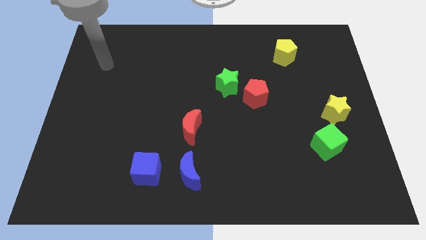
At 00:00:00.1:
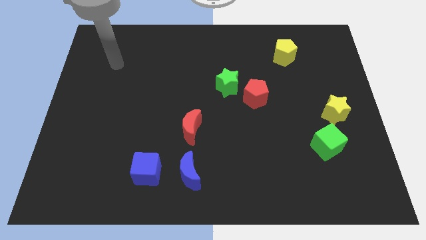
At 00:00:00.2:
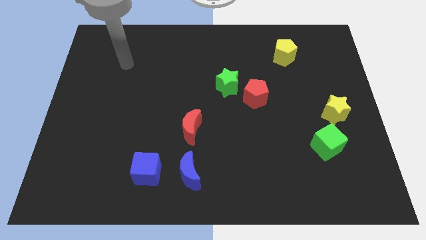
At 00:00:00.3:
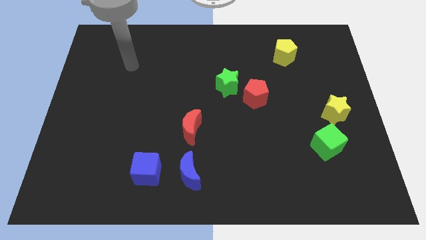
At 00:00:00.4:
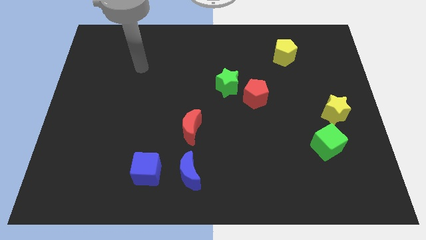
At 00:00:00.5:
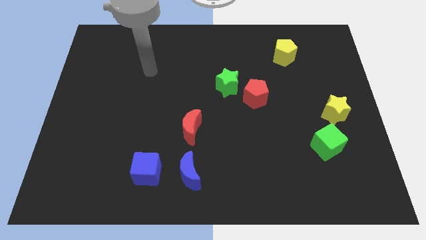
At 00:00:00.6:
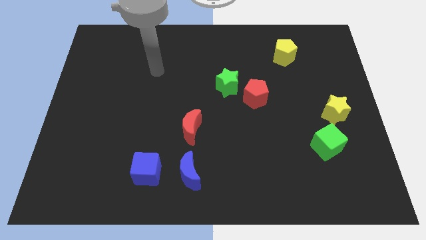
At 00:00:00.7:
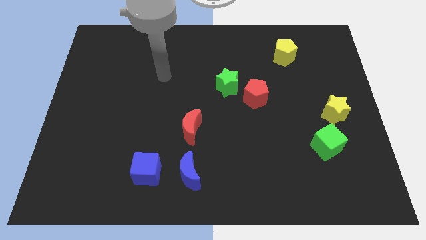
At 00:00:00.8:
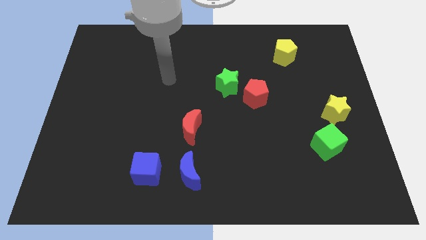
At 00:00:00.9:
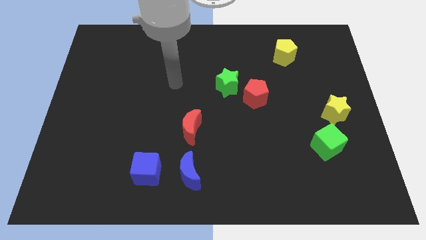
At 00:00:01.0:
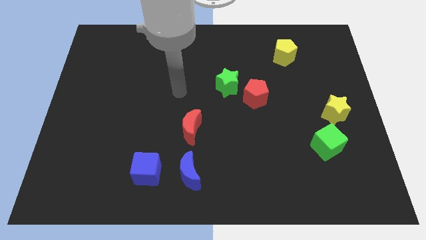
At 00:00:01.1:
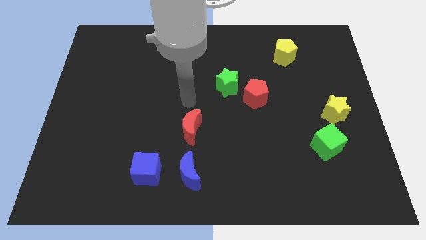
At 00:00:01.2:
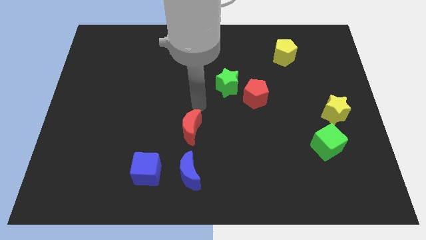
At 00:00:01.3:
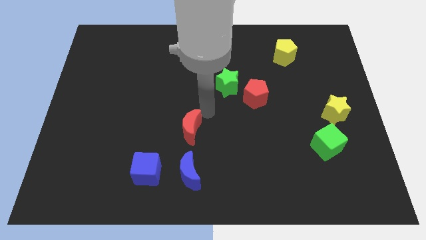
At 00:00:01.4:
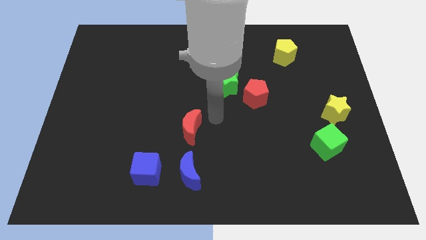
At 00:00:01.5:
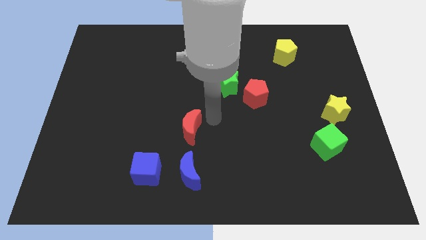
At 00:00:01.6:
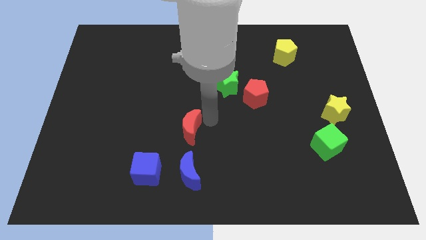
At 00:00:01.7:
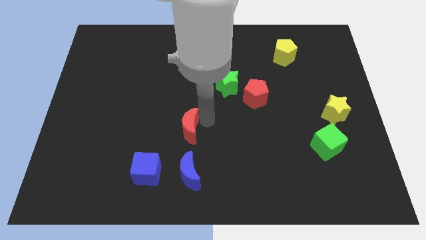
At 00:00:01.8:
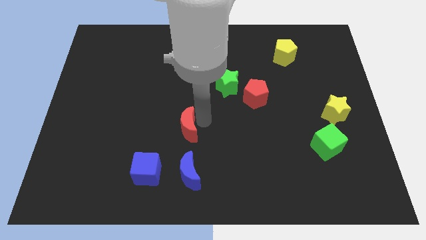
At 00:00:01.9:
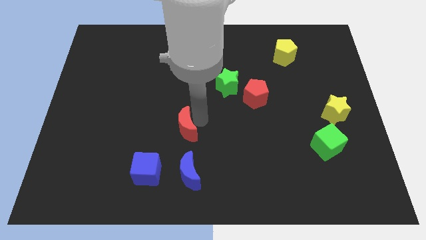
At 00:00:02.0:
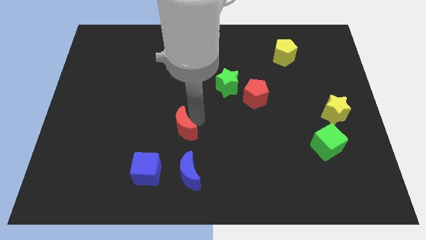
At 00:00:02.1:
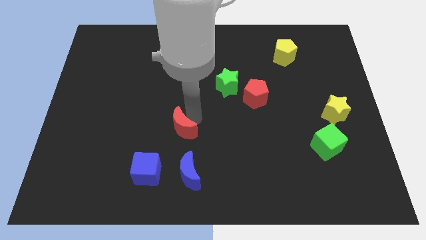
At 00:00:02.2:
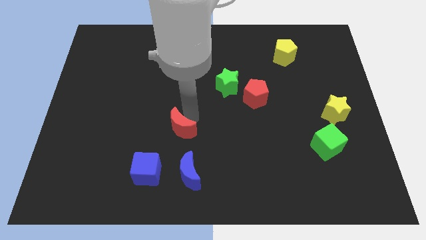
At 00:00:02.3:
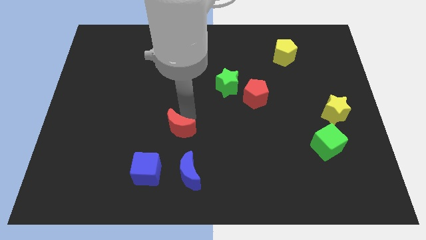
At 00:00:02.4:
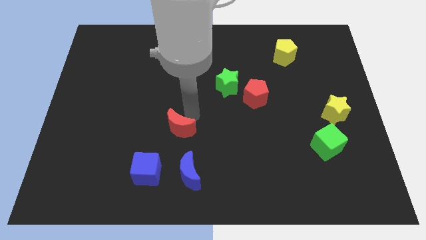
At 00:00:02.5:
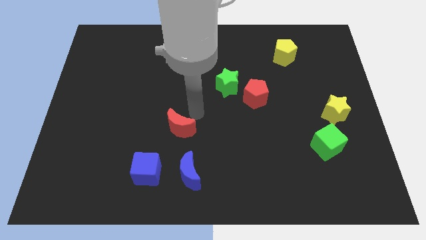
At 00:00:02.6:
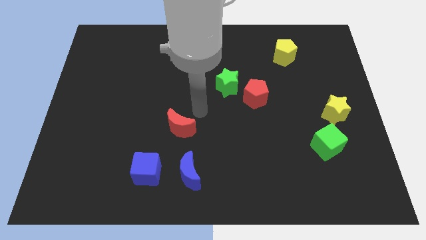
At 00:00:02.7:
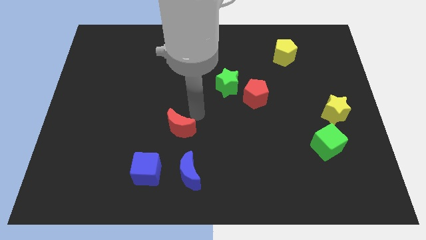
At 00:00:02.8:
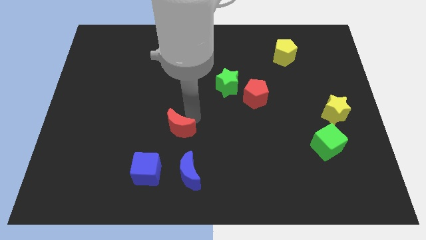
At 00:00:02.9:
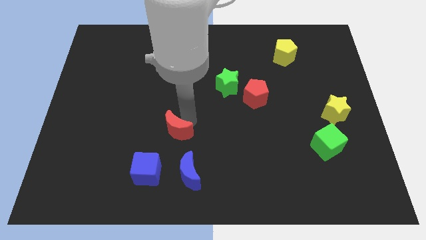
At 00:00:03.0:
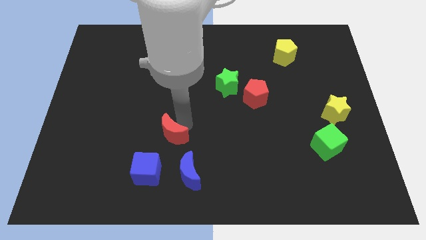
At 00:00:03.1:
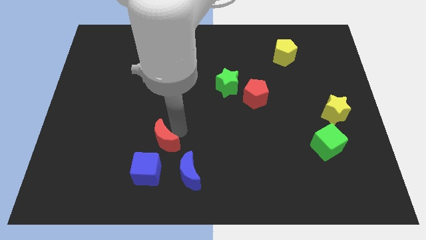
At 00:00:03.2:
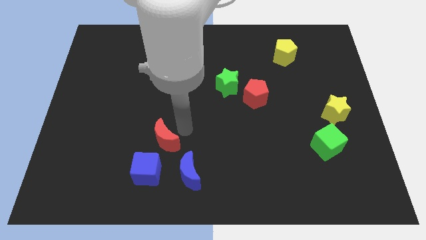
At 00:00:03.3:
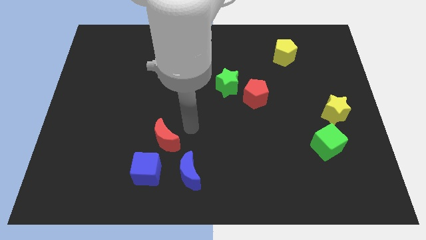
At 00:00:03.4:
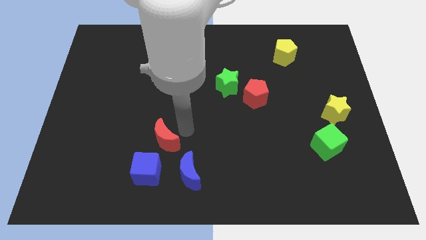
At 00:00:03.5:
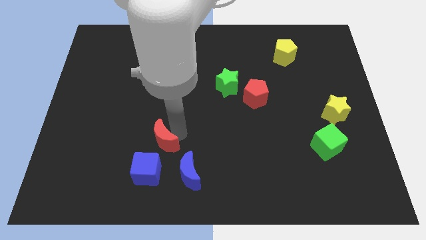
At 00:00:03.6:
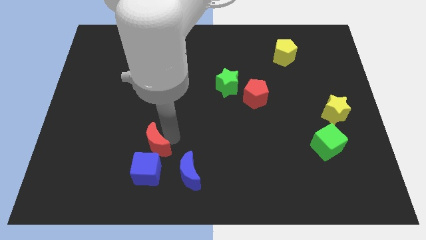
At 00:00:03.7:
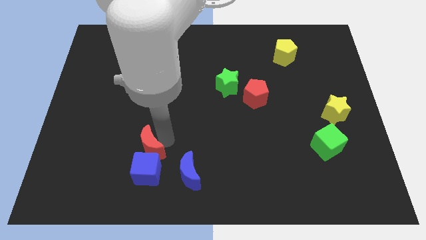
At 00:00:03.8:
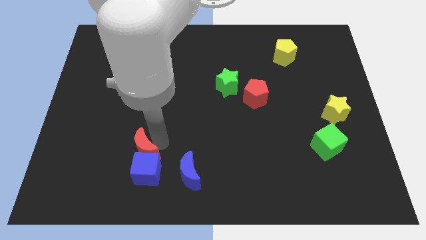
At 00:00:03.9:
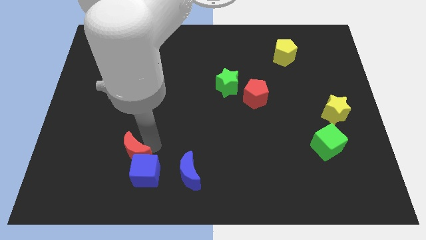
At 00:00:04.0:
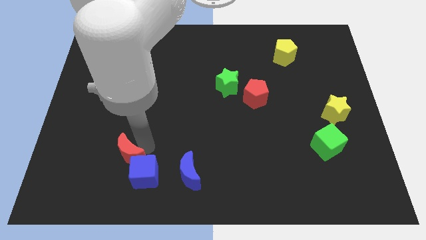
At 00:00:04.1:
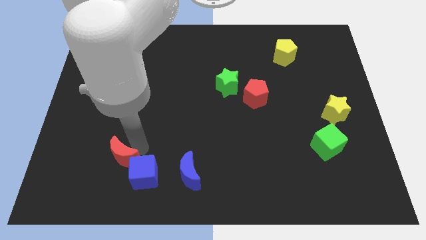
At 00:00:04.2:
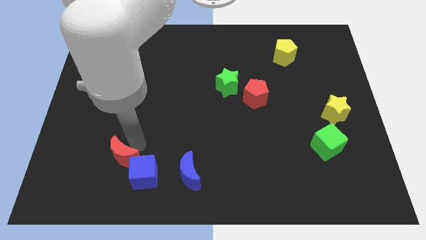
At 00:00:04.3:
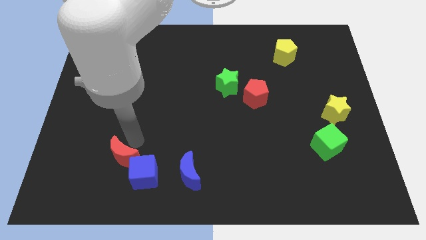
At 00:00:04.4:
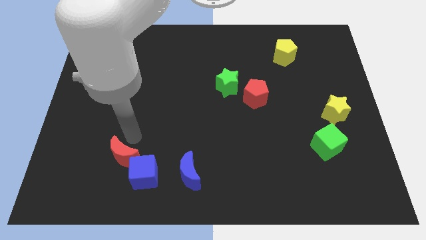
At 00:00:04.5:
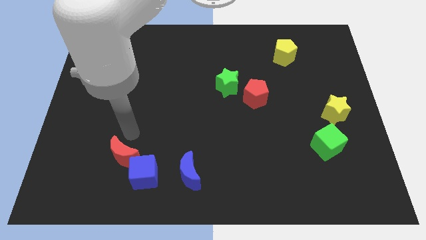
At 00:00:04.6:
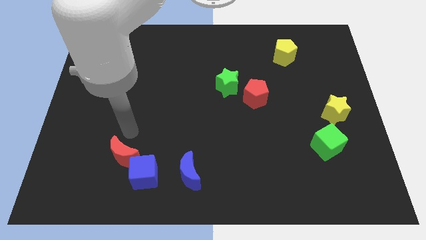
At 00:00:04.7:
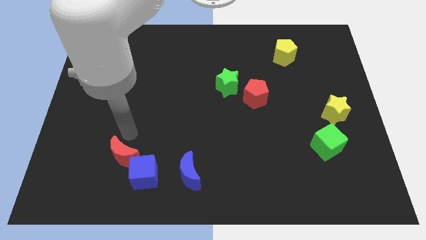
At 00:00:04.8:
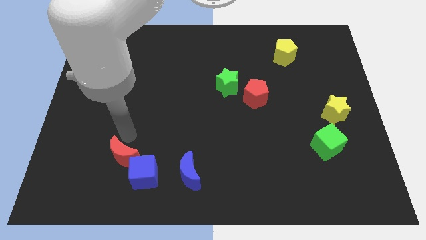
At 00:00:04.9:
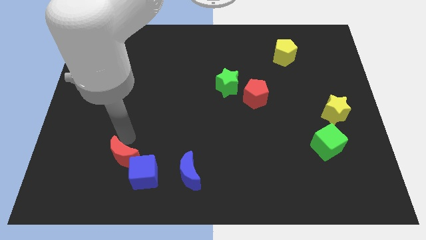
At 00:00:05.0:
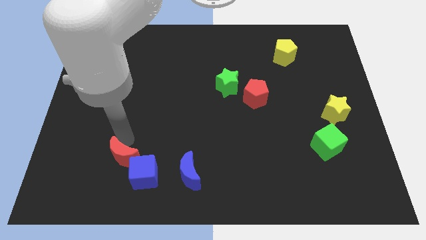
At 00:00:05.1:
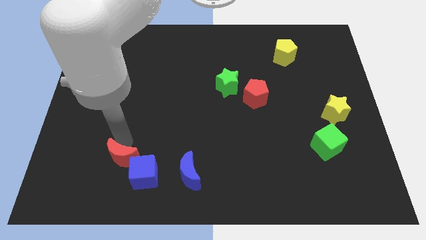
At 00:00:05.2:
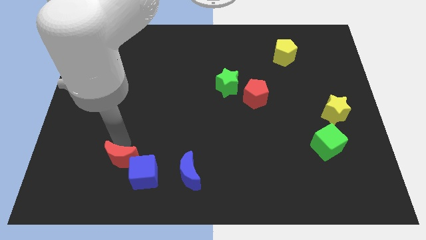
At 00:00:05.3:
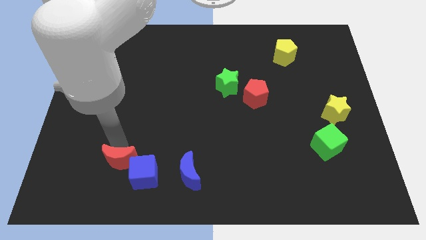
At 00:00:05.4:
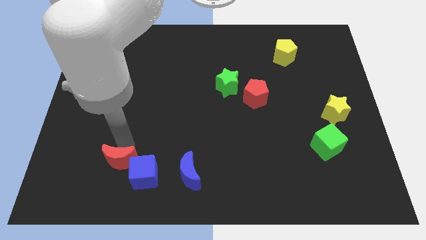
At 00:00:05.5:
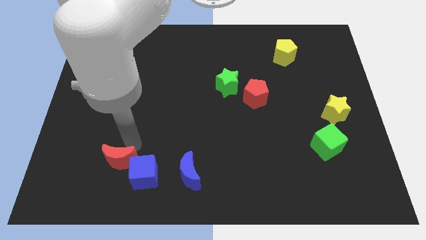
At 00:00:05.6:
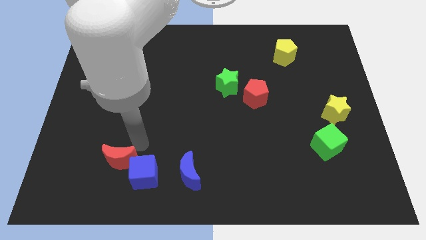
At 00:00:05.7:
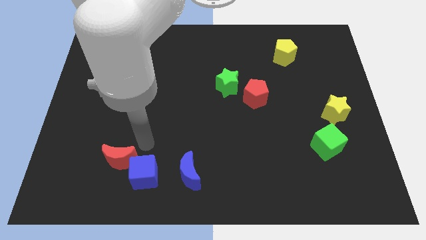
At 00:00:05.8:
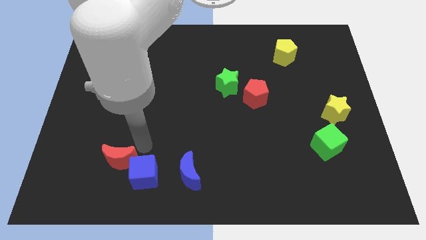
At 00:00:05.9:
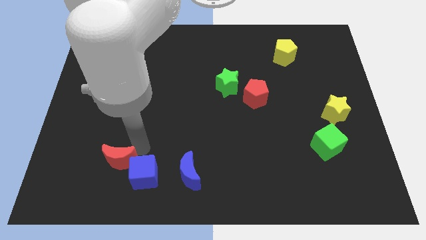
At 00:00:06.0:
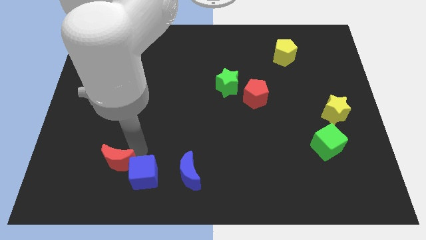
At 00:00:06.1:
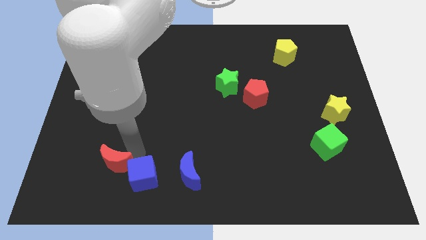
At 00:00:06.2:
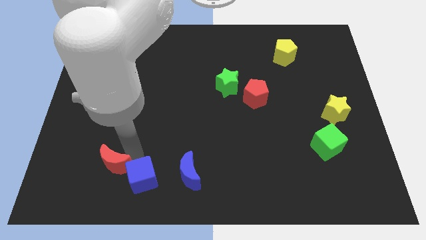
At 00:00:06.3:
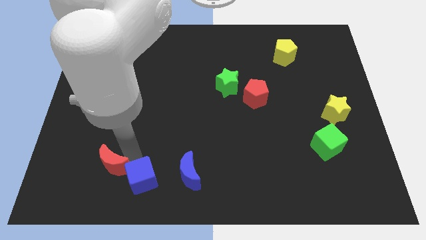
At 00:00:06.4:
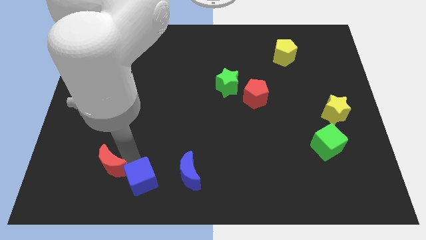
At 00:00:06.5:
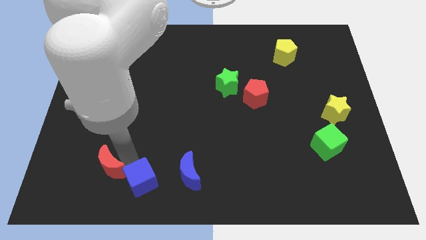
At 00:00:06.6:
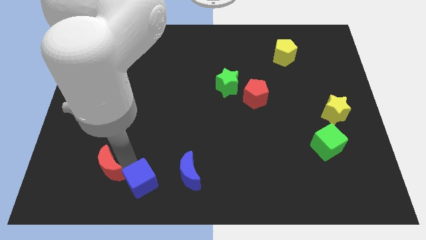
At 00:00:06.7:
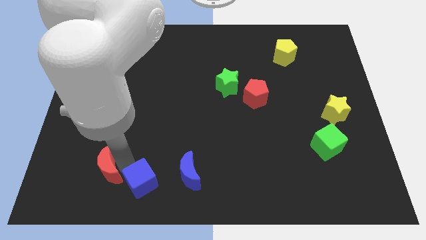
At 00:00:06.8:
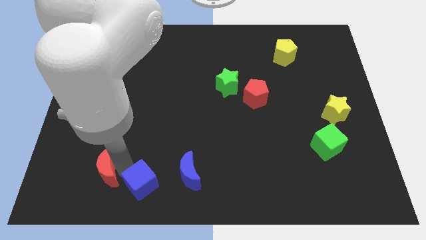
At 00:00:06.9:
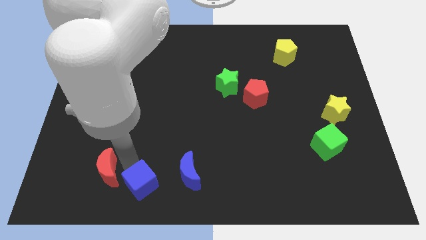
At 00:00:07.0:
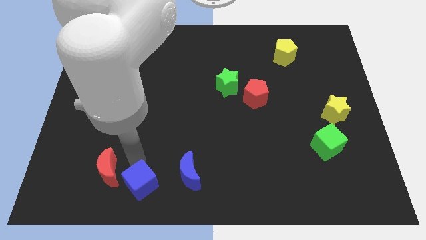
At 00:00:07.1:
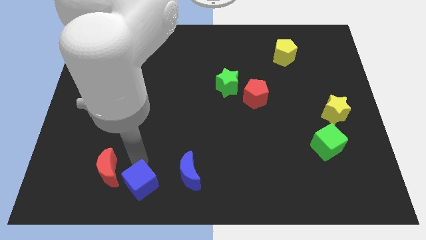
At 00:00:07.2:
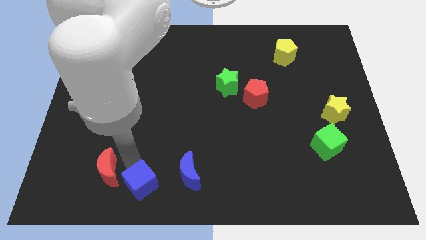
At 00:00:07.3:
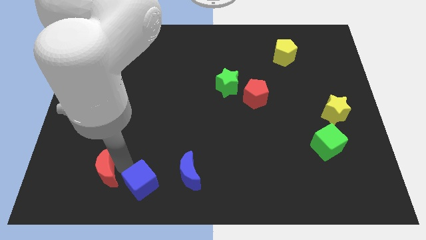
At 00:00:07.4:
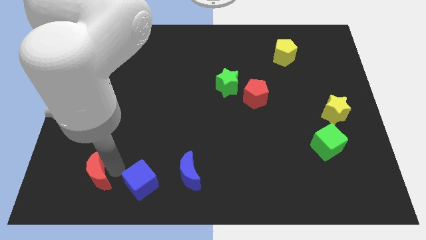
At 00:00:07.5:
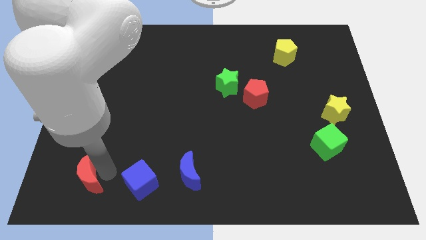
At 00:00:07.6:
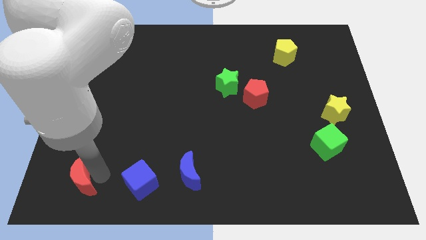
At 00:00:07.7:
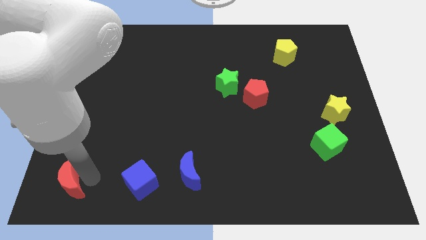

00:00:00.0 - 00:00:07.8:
push the red moon to the lower left corner
